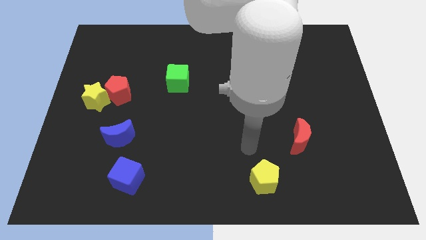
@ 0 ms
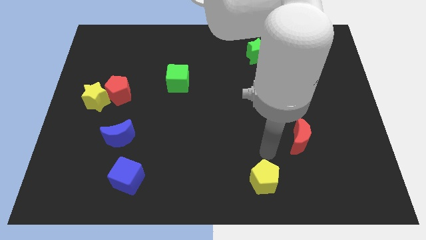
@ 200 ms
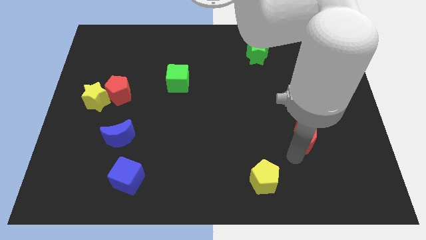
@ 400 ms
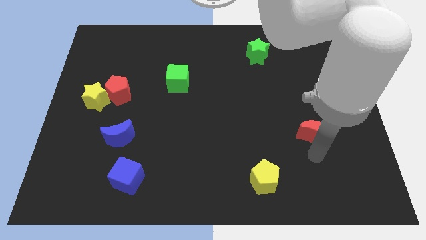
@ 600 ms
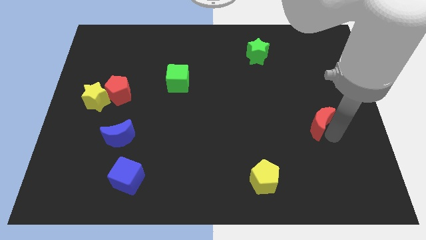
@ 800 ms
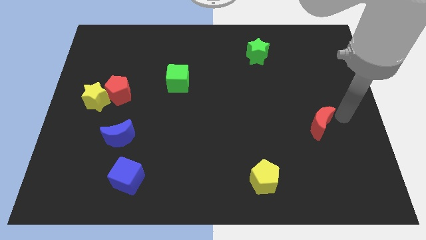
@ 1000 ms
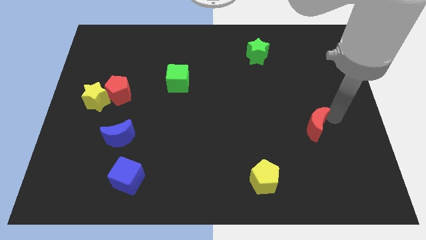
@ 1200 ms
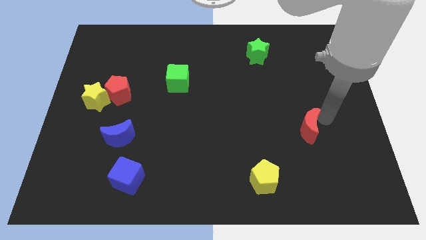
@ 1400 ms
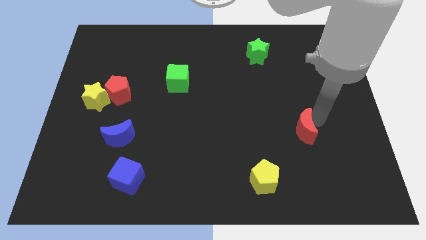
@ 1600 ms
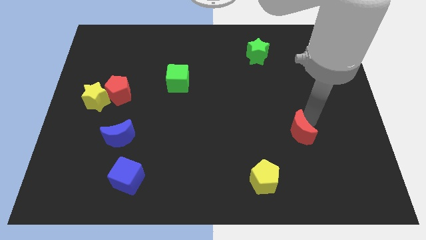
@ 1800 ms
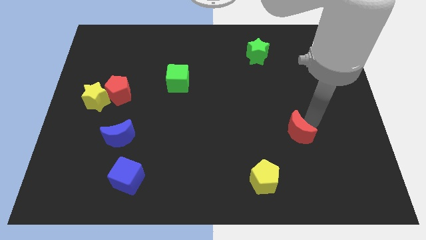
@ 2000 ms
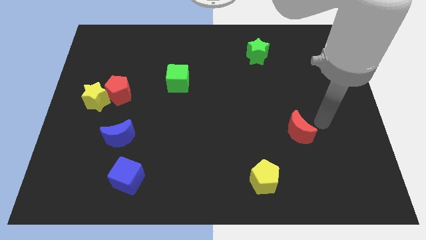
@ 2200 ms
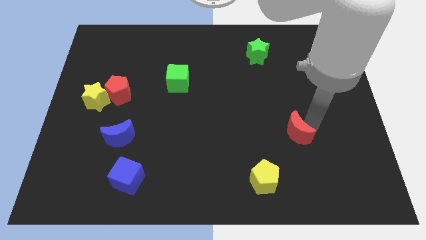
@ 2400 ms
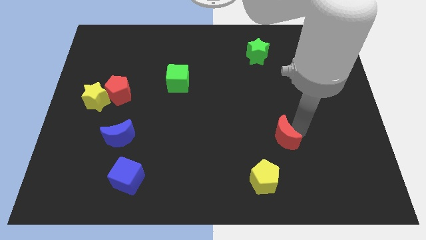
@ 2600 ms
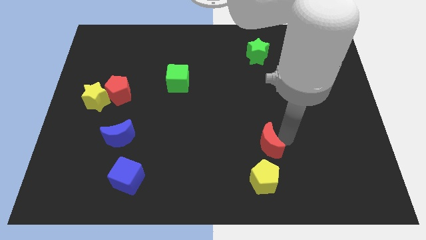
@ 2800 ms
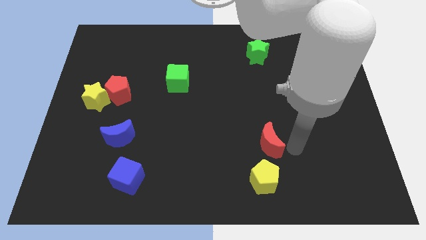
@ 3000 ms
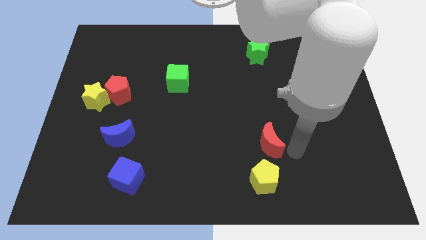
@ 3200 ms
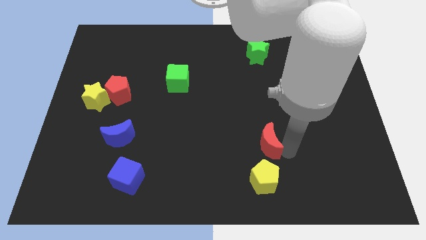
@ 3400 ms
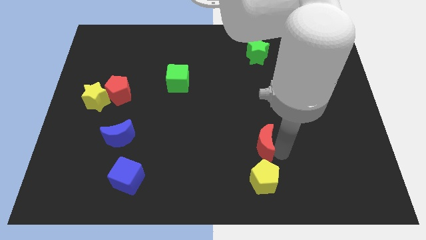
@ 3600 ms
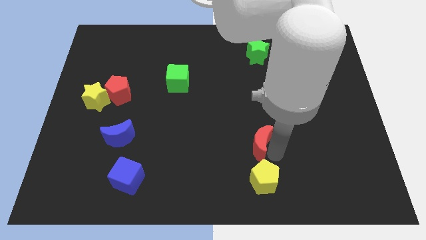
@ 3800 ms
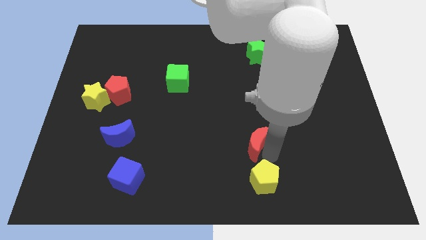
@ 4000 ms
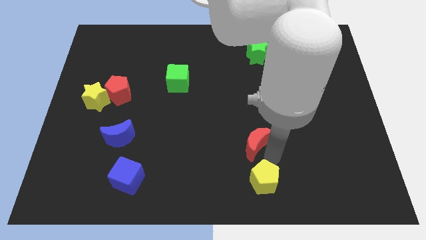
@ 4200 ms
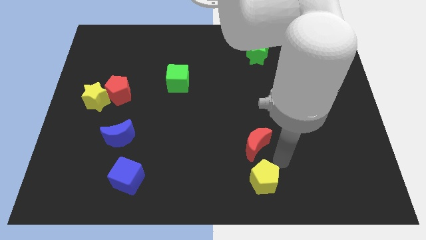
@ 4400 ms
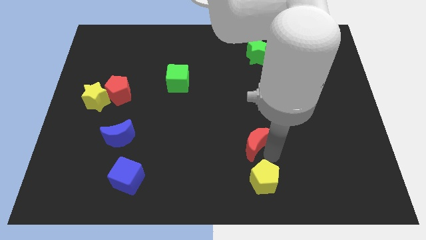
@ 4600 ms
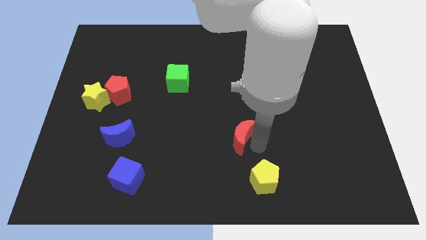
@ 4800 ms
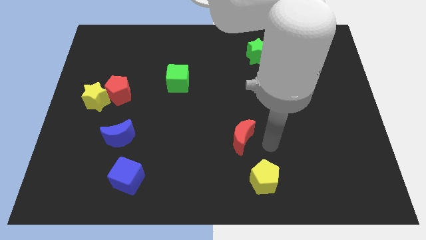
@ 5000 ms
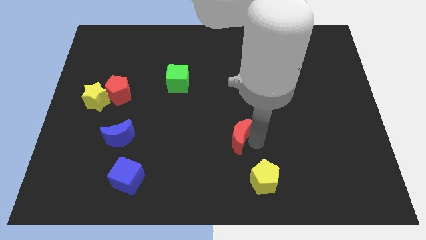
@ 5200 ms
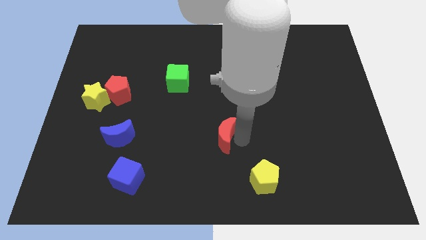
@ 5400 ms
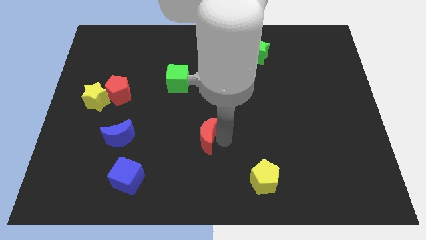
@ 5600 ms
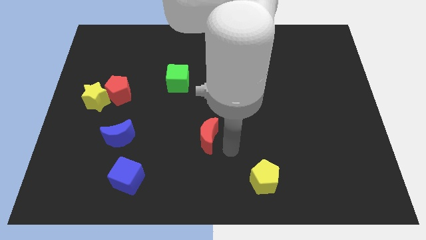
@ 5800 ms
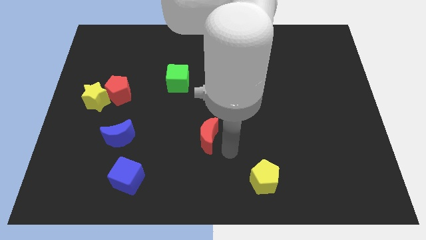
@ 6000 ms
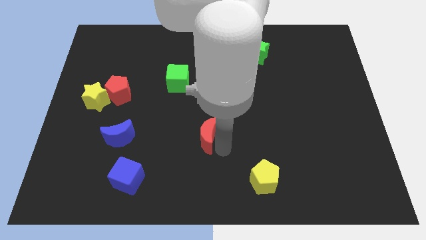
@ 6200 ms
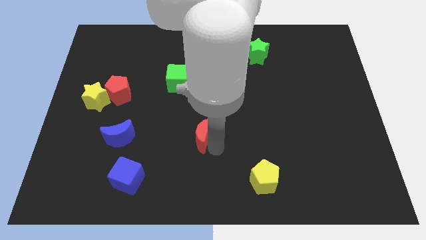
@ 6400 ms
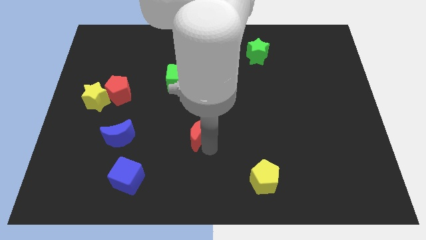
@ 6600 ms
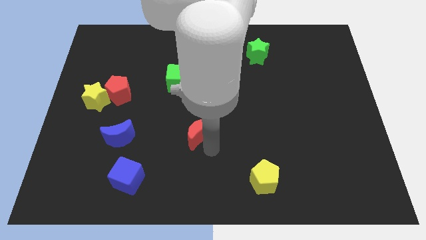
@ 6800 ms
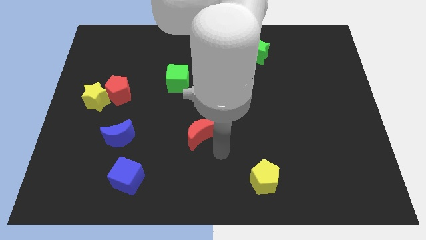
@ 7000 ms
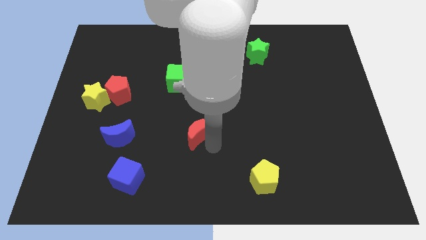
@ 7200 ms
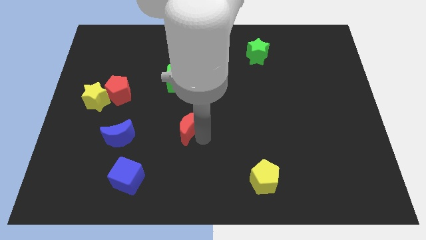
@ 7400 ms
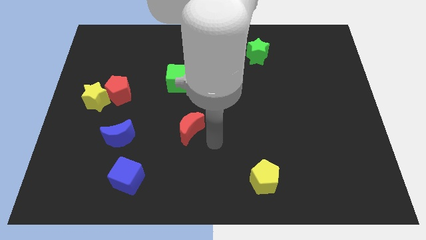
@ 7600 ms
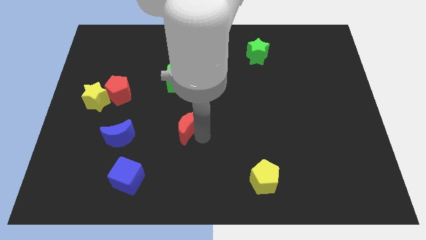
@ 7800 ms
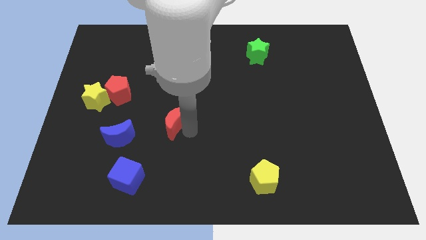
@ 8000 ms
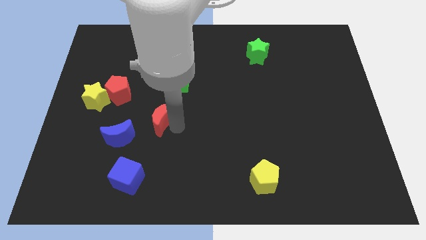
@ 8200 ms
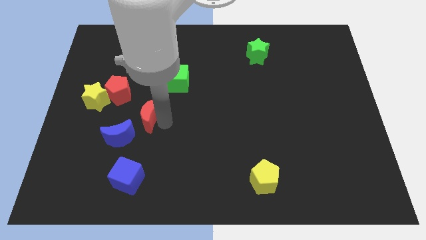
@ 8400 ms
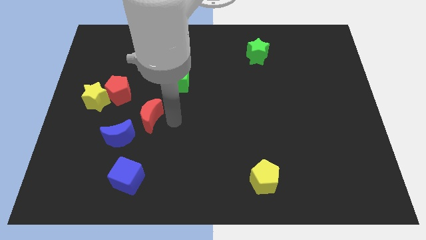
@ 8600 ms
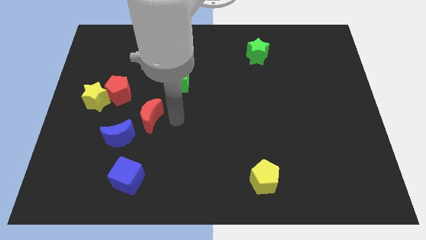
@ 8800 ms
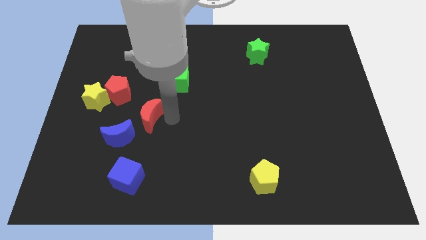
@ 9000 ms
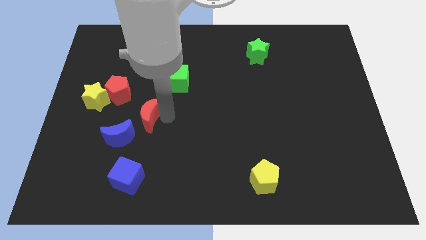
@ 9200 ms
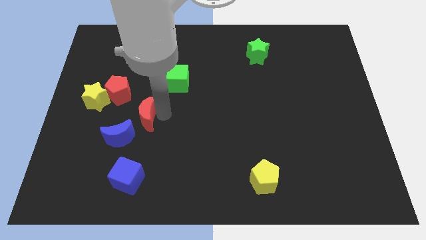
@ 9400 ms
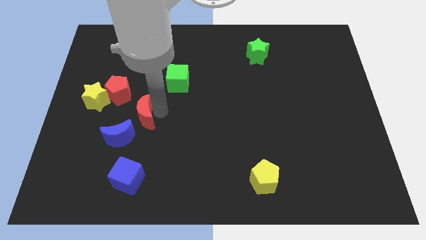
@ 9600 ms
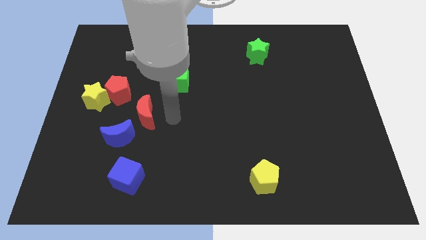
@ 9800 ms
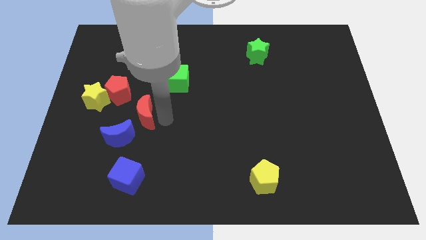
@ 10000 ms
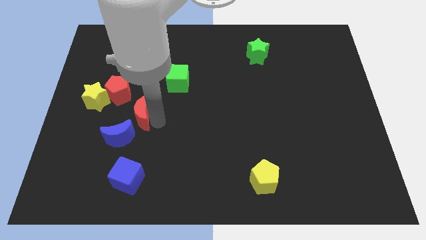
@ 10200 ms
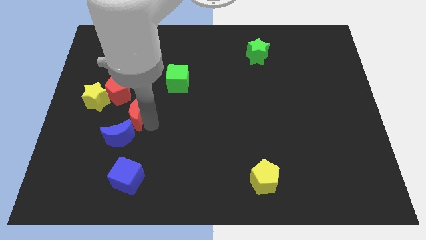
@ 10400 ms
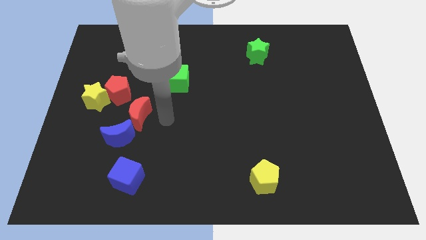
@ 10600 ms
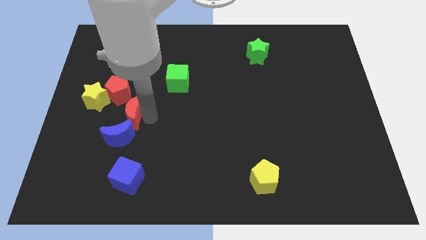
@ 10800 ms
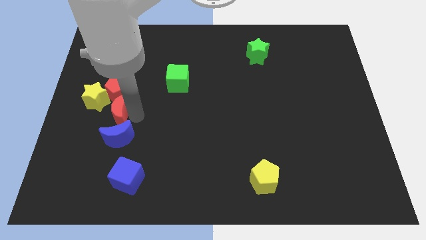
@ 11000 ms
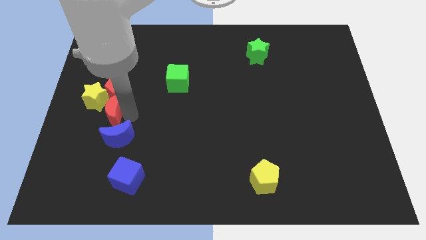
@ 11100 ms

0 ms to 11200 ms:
push the red moon diagonally down and to the left of the red pentagon

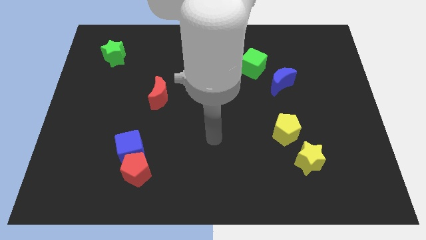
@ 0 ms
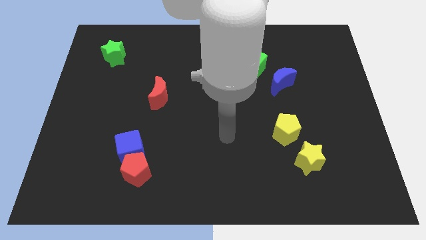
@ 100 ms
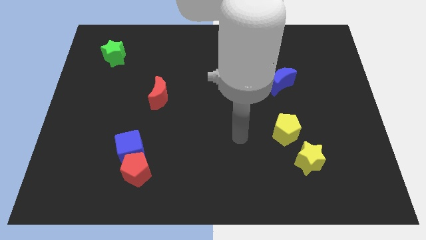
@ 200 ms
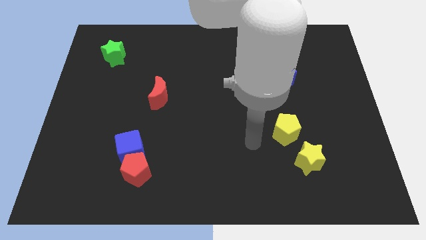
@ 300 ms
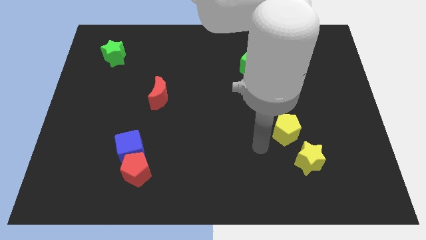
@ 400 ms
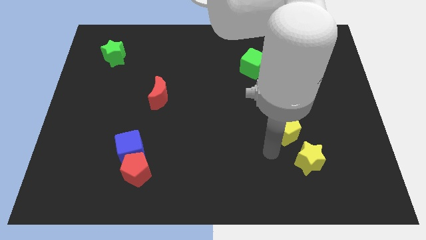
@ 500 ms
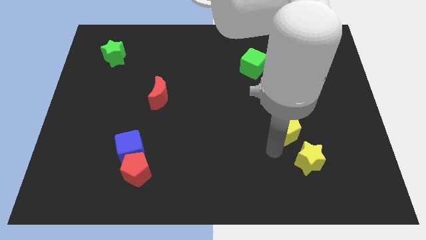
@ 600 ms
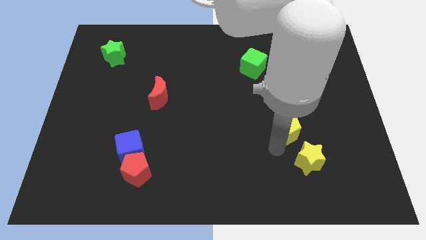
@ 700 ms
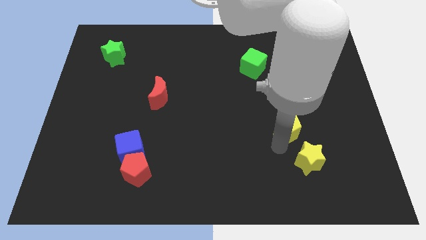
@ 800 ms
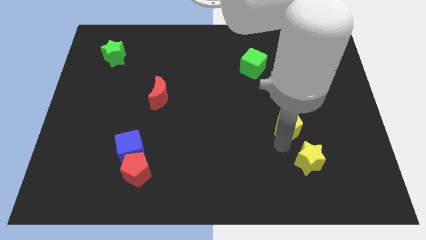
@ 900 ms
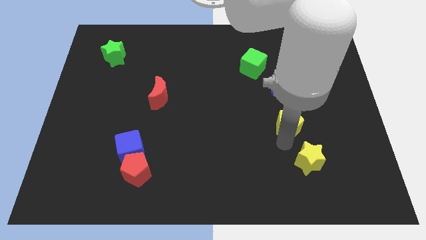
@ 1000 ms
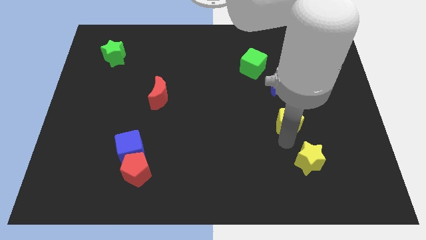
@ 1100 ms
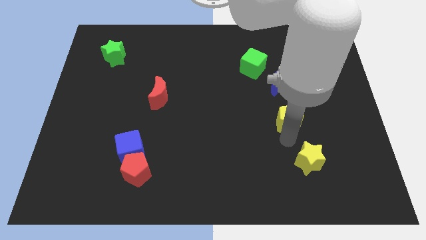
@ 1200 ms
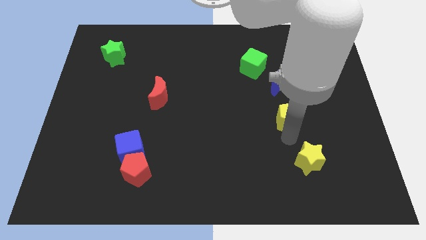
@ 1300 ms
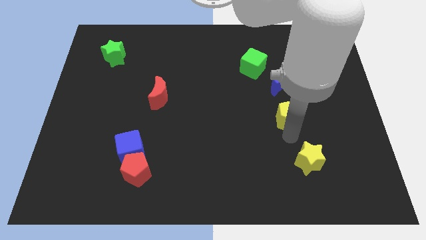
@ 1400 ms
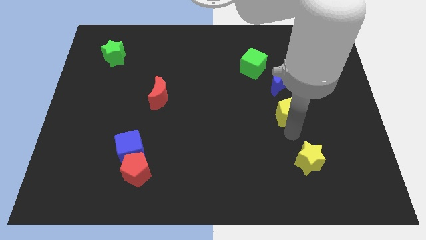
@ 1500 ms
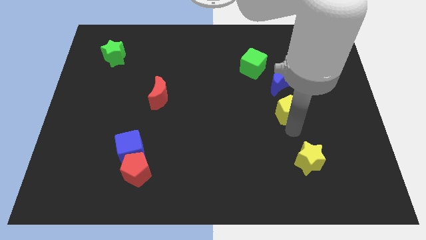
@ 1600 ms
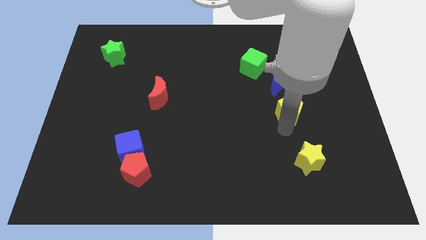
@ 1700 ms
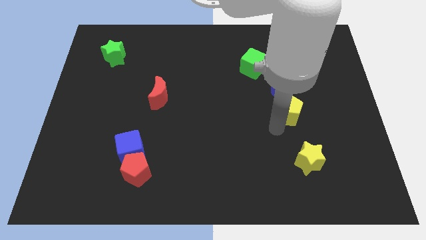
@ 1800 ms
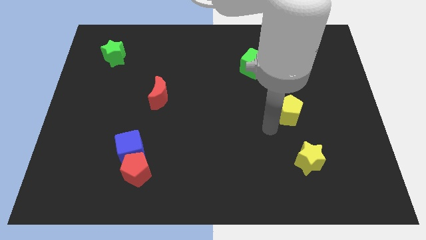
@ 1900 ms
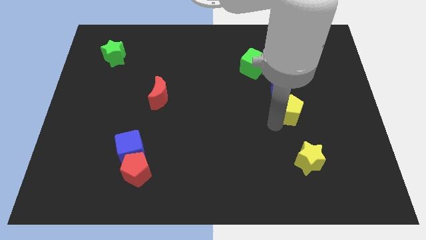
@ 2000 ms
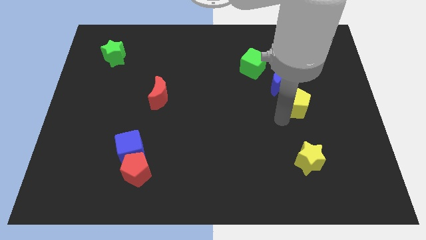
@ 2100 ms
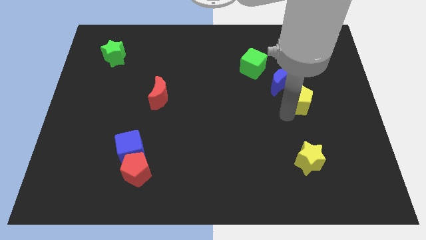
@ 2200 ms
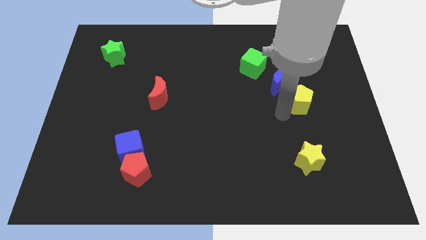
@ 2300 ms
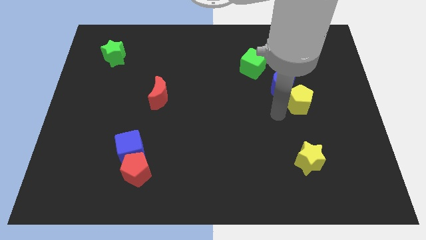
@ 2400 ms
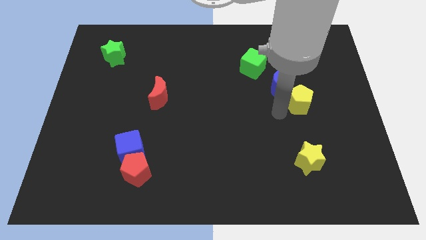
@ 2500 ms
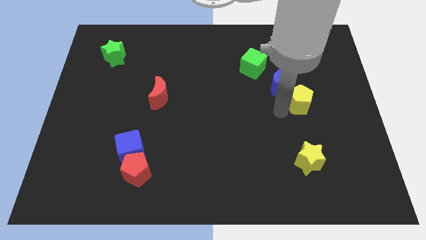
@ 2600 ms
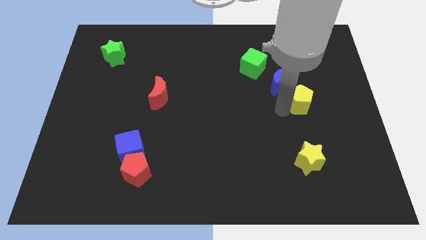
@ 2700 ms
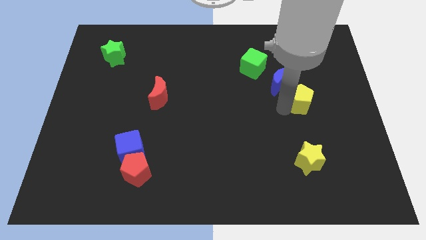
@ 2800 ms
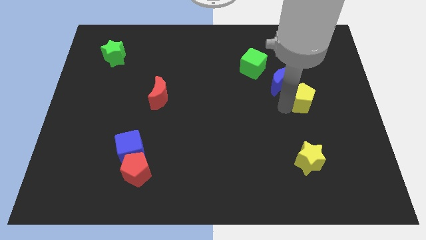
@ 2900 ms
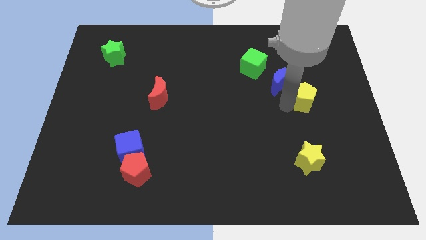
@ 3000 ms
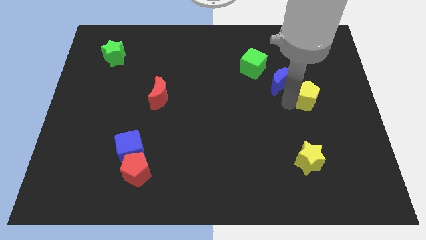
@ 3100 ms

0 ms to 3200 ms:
move the yellow pentagon right of the blue moon
